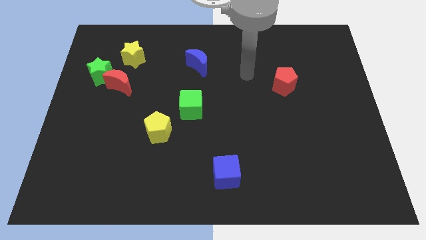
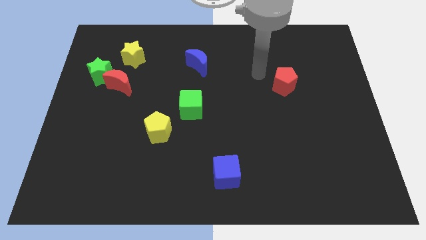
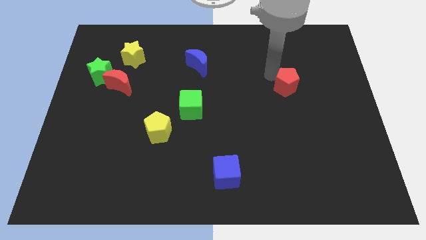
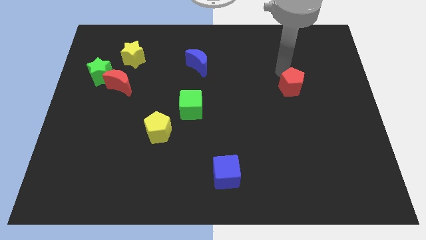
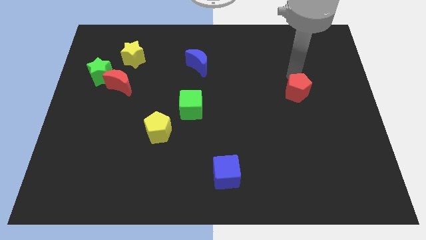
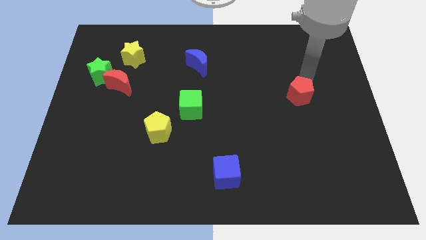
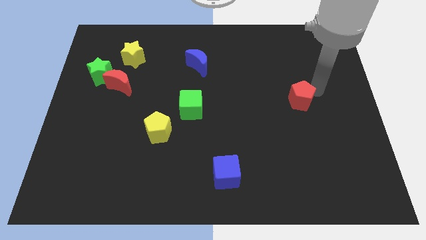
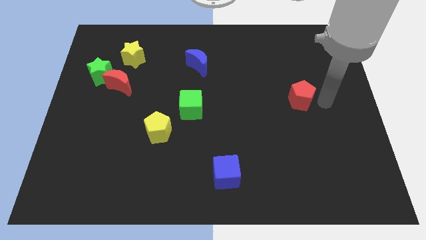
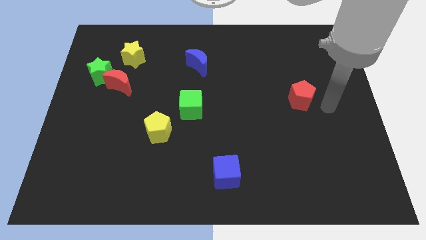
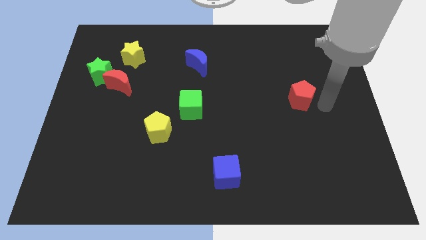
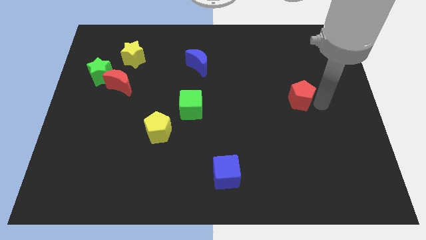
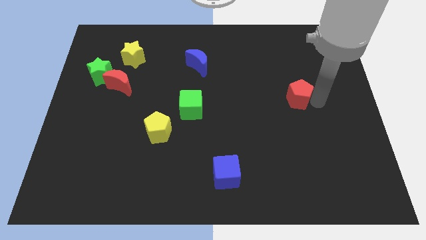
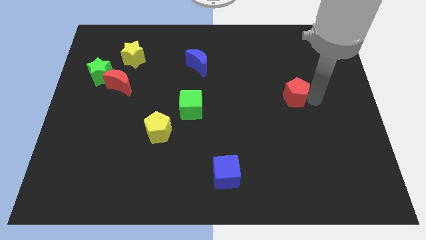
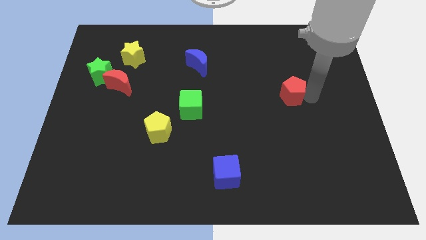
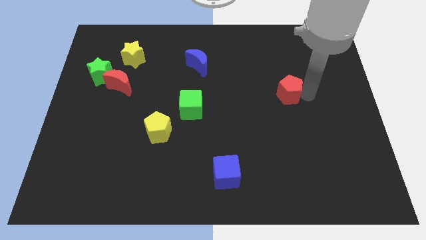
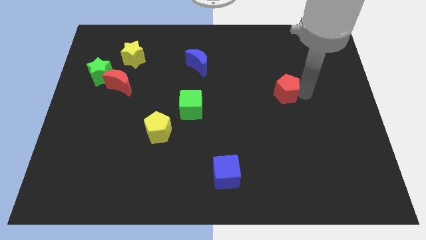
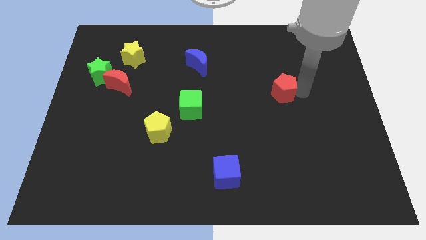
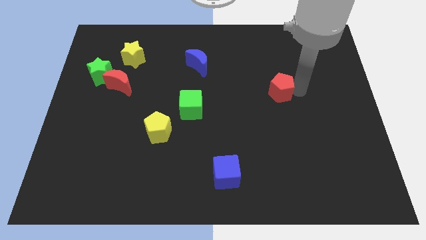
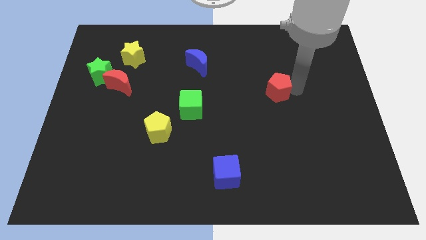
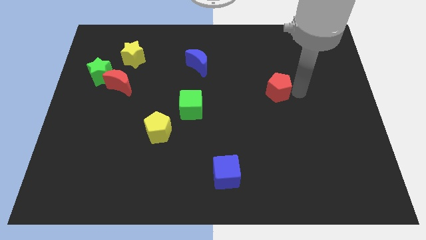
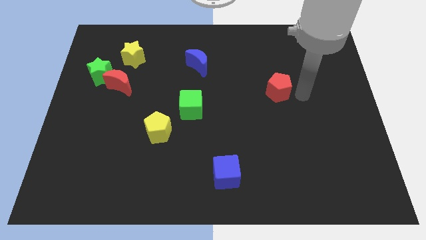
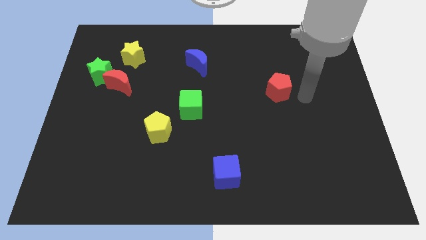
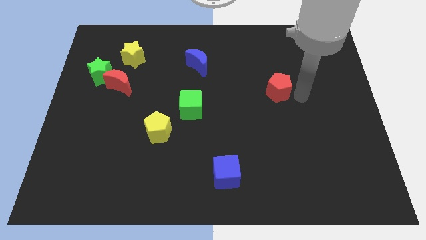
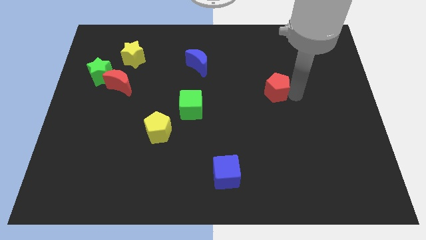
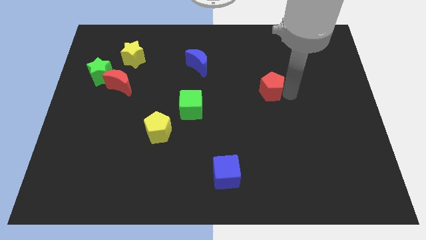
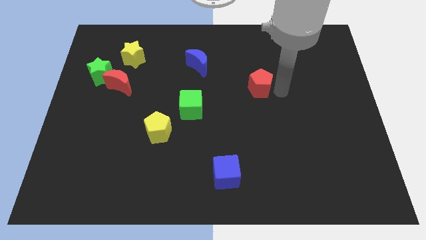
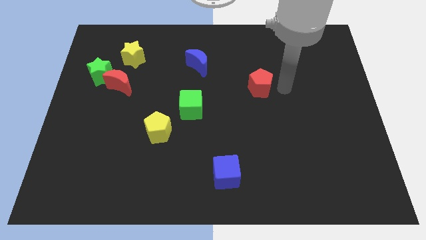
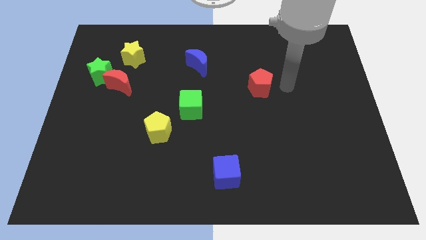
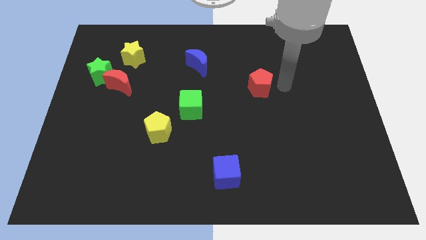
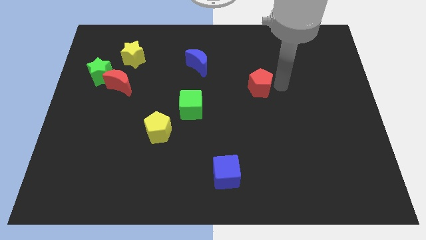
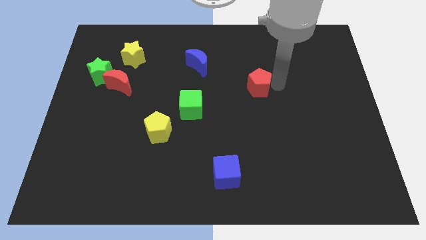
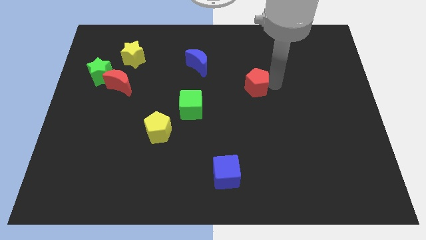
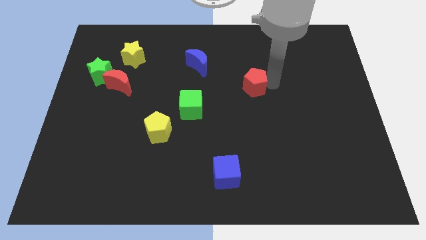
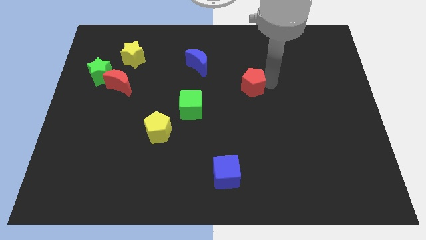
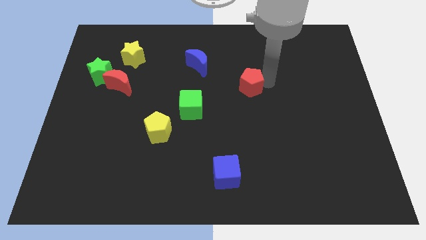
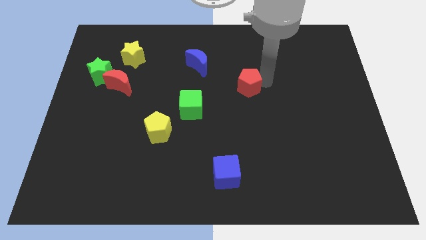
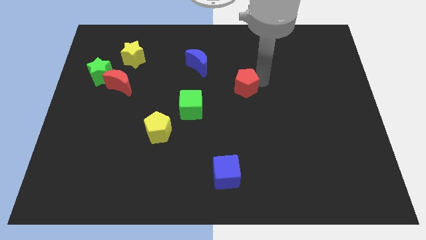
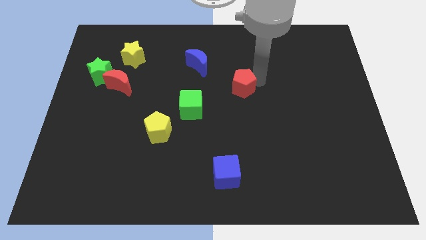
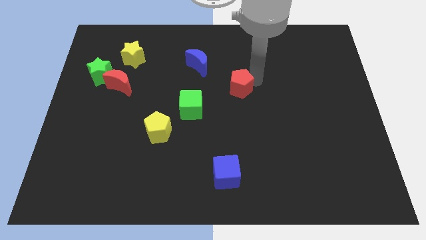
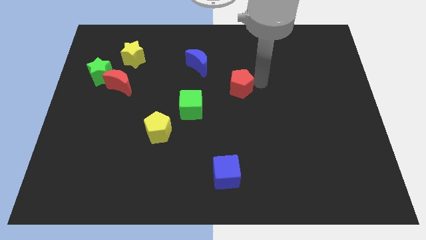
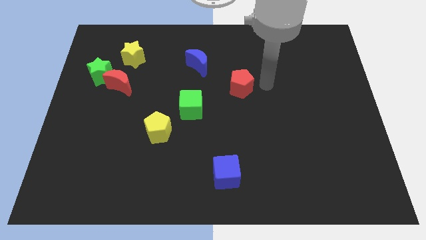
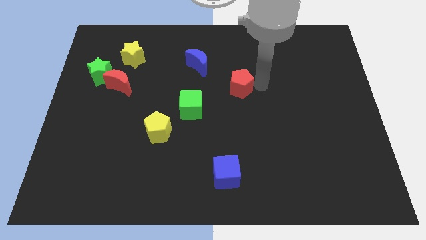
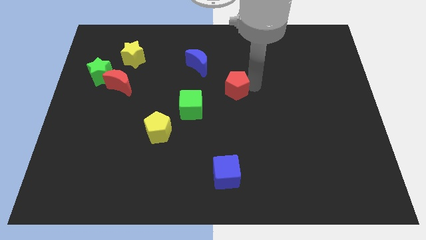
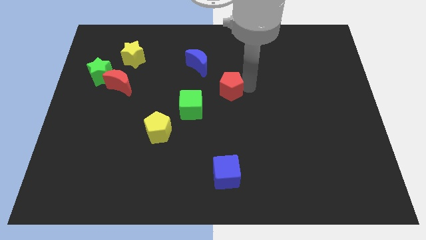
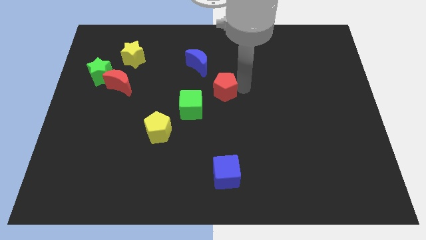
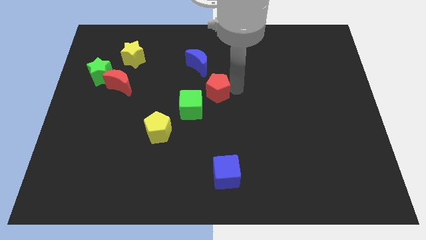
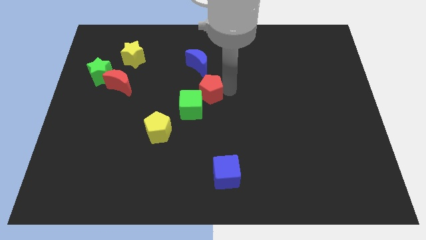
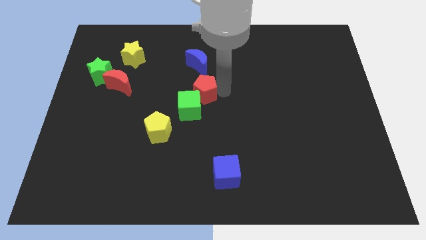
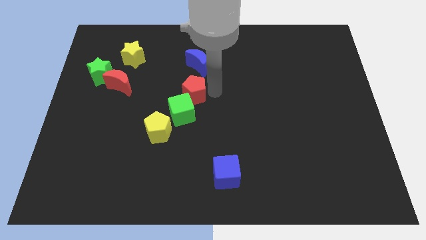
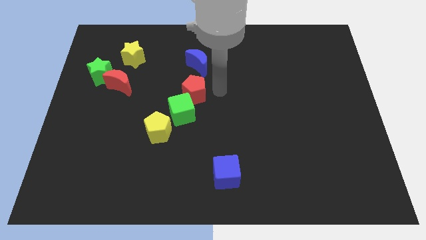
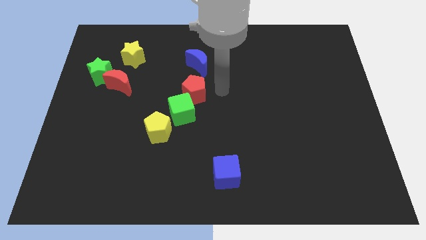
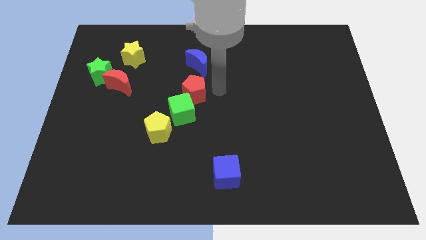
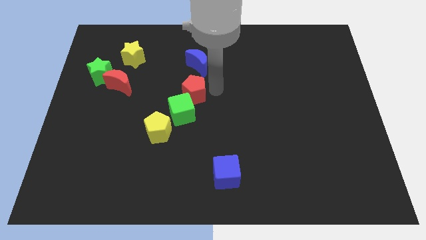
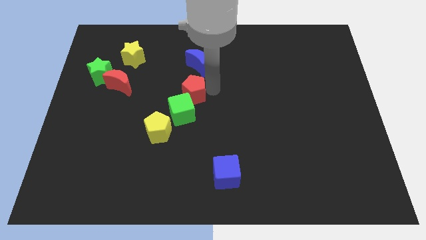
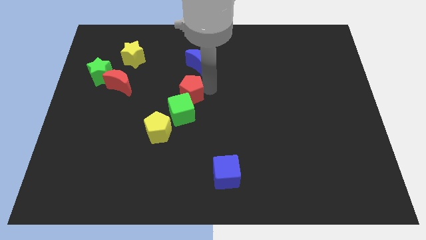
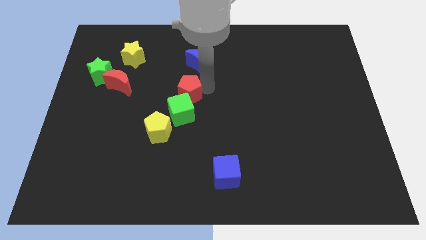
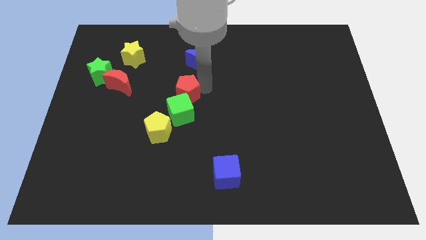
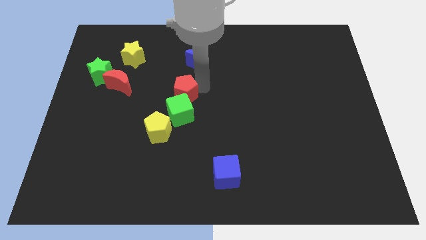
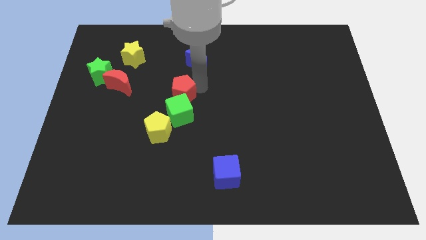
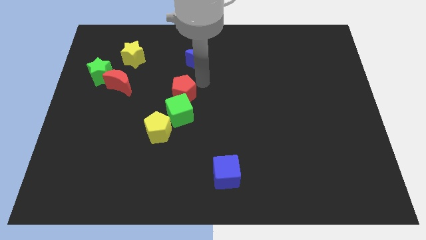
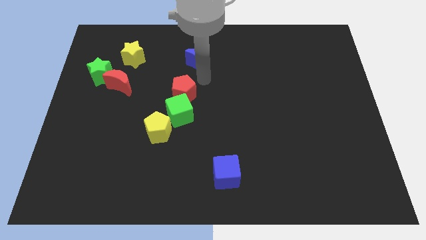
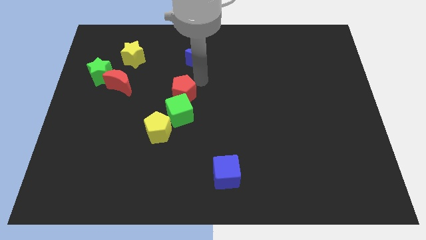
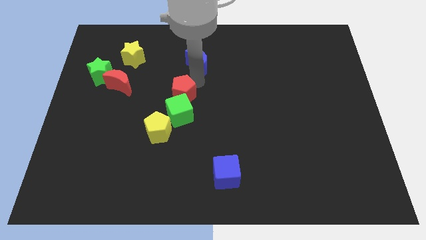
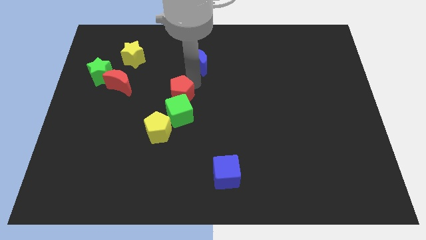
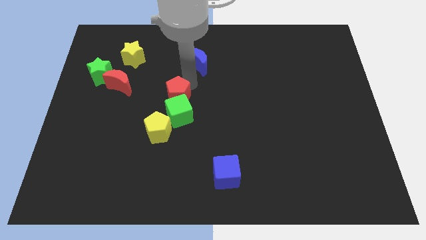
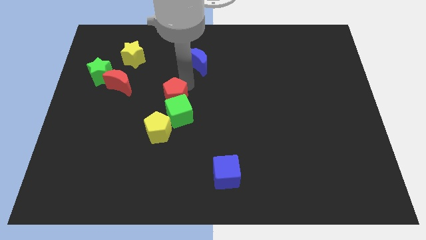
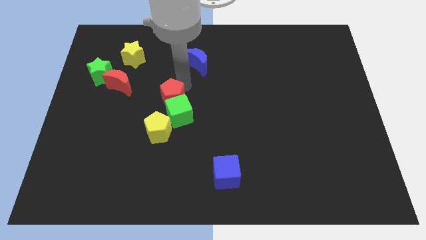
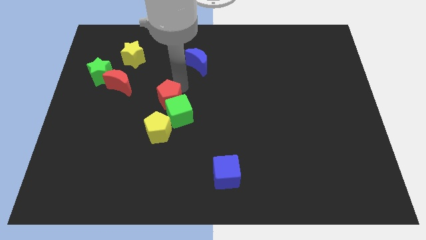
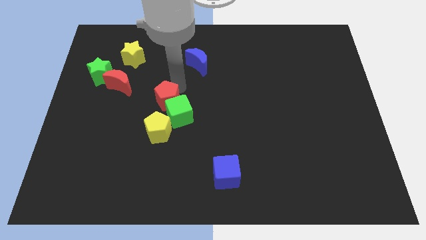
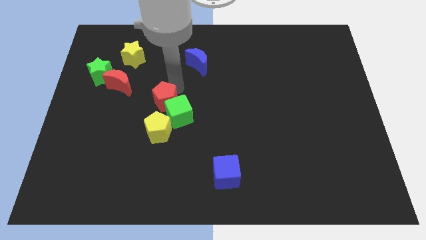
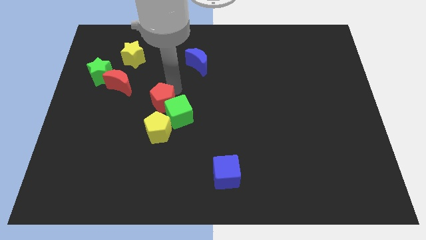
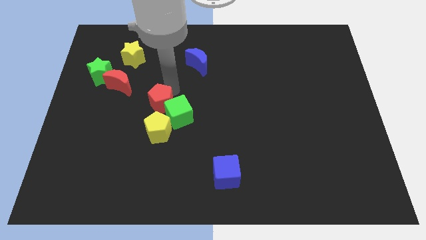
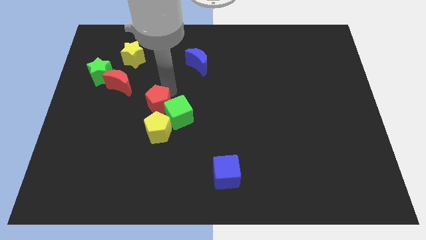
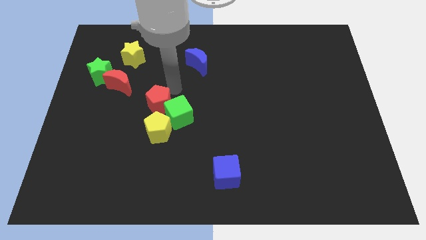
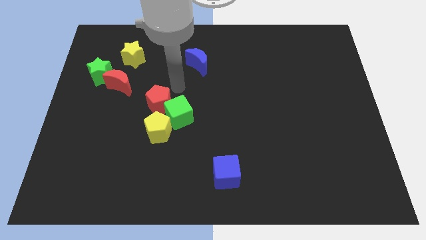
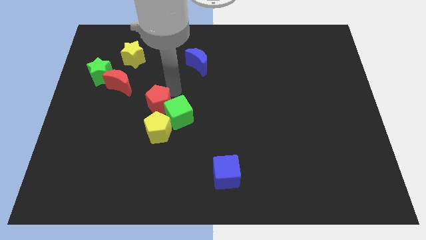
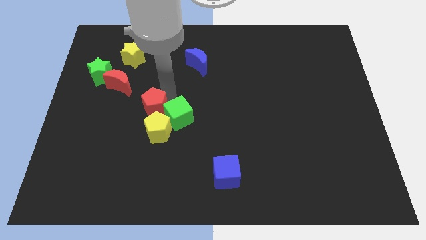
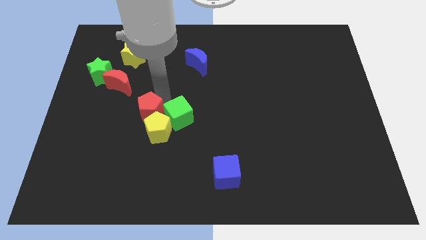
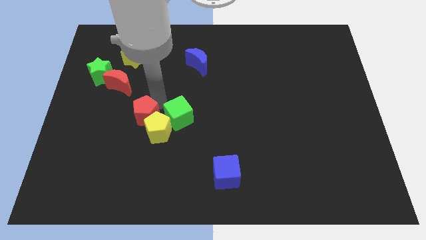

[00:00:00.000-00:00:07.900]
slide the red pentagon left of the yellow pentagon
